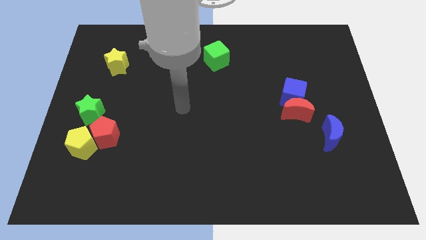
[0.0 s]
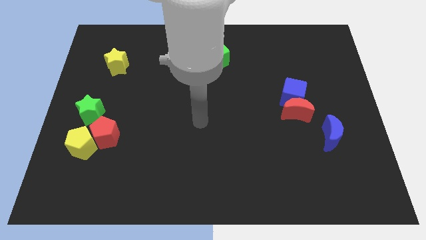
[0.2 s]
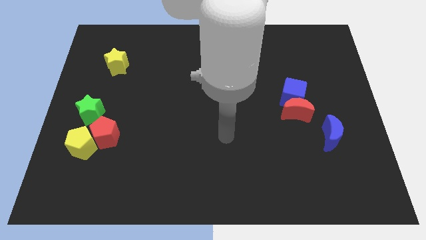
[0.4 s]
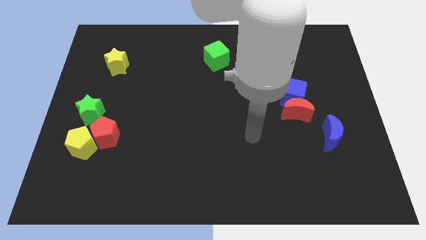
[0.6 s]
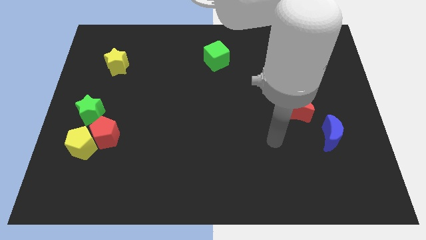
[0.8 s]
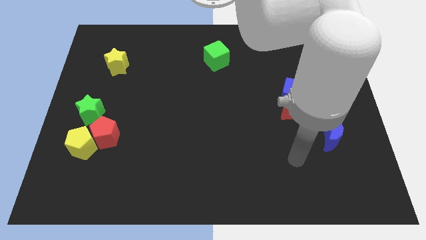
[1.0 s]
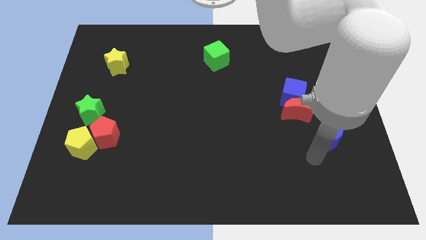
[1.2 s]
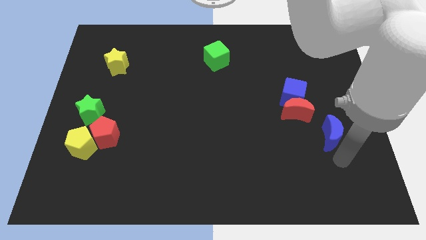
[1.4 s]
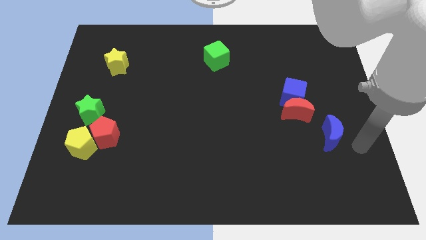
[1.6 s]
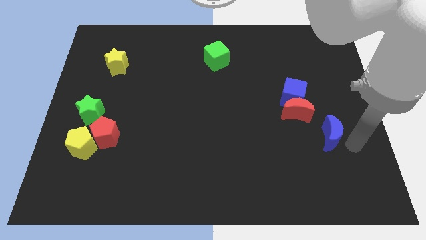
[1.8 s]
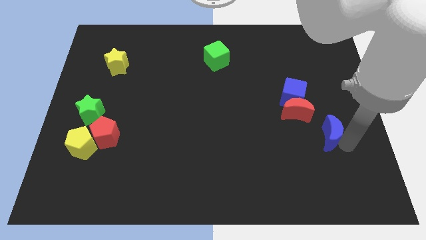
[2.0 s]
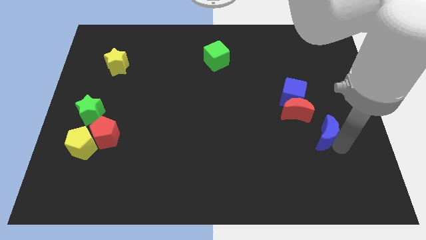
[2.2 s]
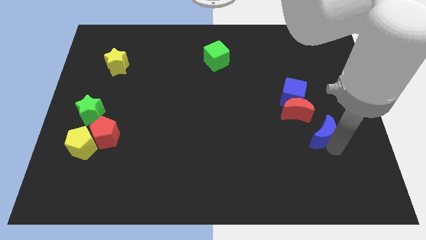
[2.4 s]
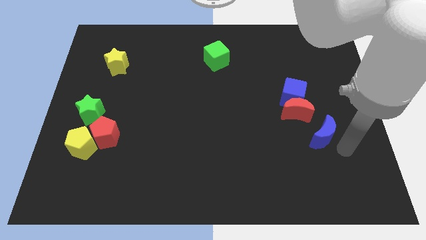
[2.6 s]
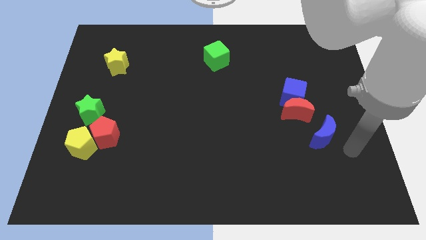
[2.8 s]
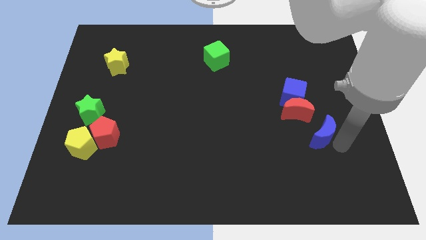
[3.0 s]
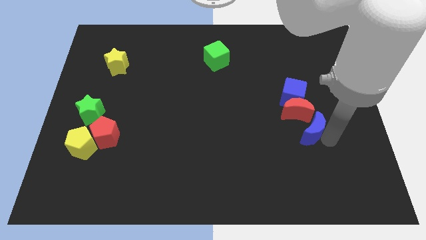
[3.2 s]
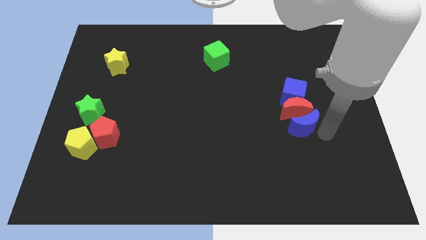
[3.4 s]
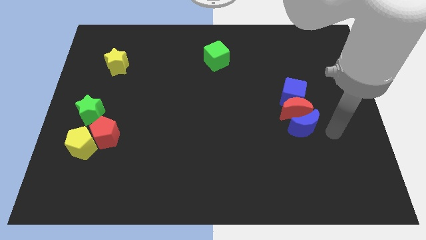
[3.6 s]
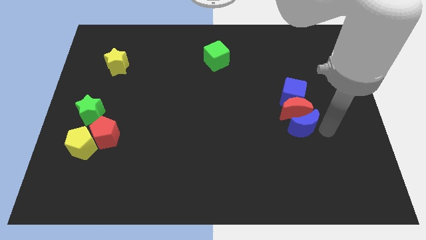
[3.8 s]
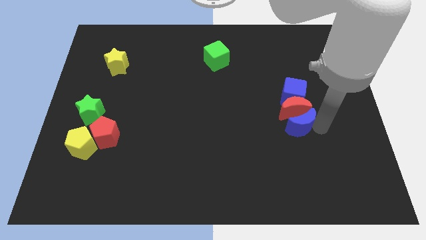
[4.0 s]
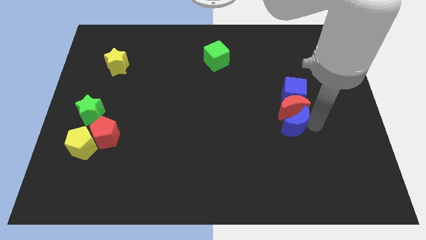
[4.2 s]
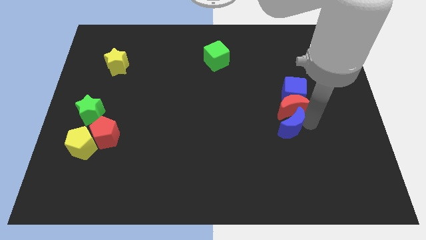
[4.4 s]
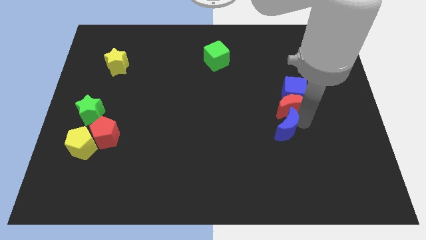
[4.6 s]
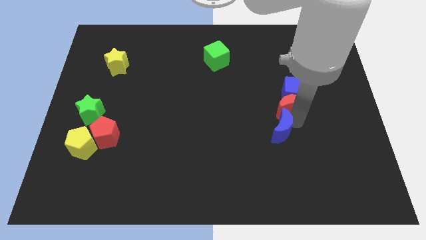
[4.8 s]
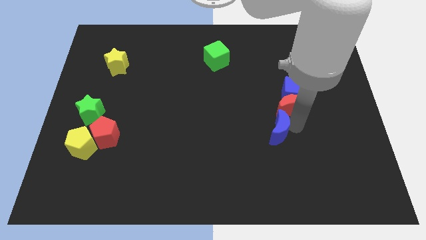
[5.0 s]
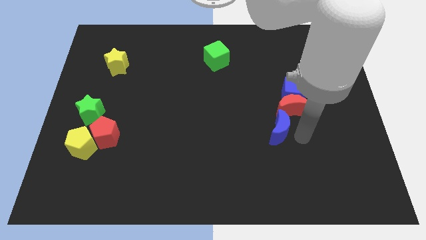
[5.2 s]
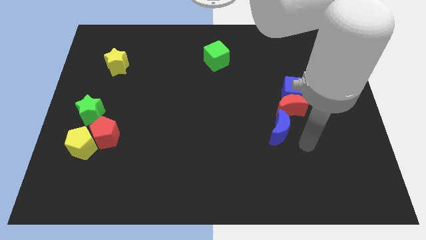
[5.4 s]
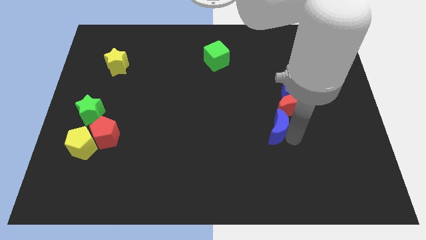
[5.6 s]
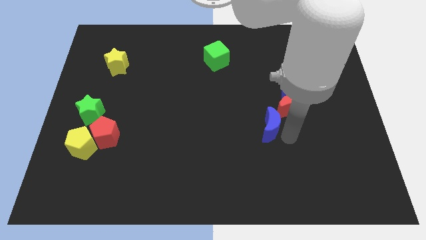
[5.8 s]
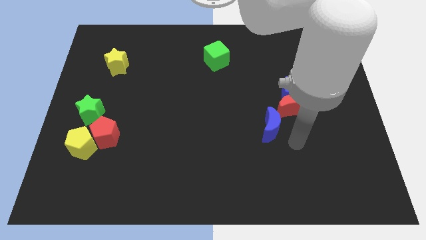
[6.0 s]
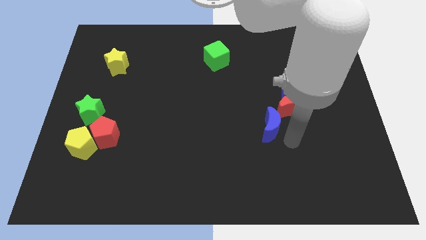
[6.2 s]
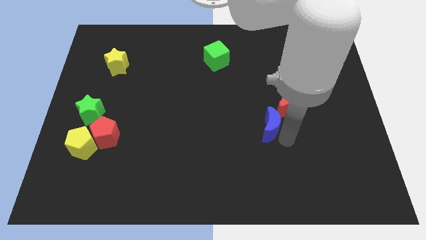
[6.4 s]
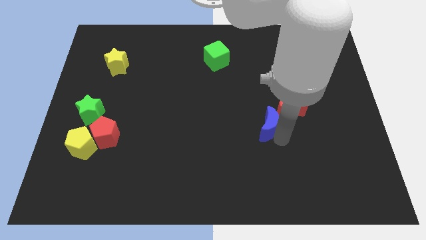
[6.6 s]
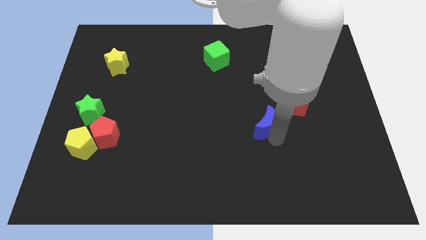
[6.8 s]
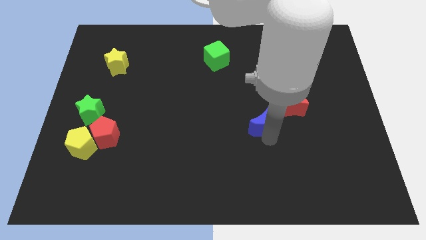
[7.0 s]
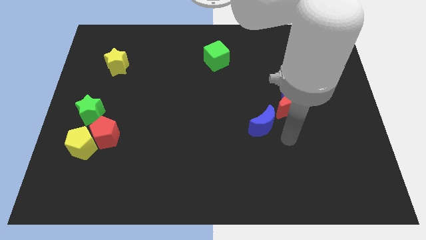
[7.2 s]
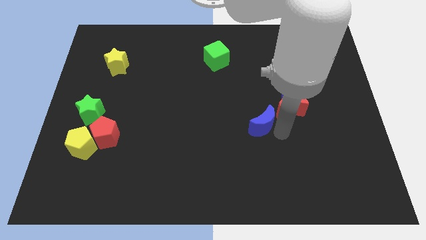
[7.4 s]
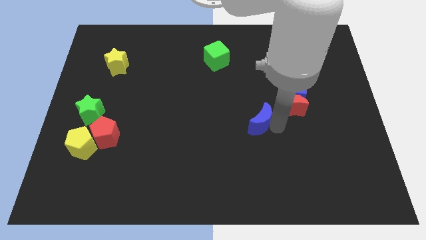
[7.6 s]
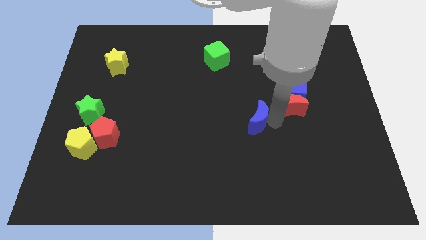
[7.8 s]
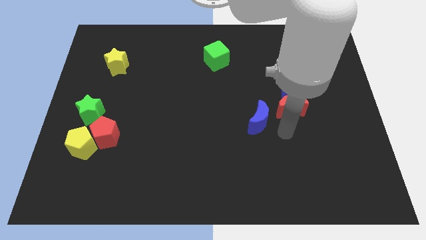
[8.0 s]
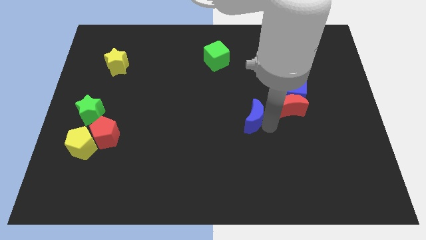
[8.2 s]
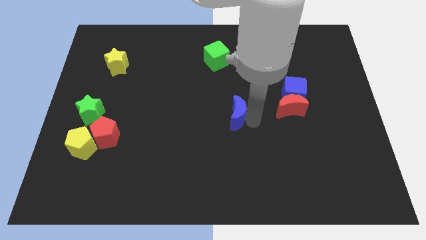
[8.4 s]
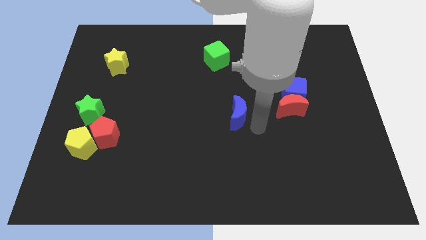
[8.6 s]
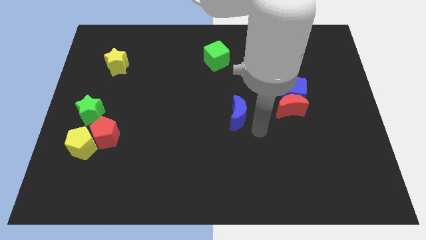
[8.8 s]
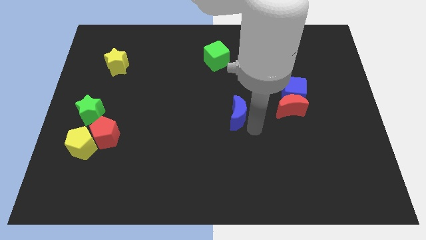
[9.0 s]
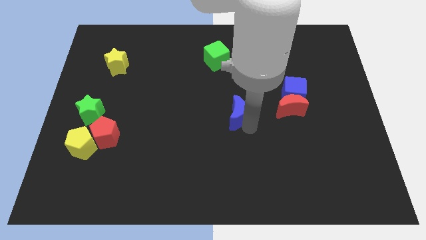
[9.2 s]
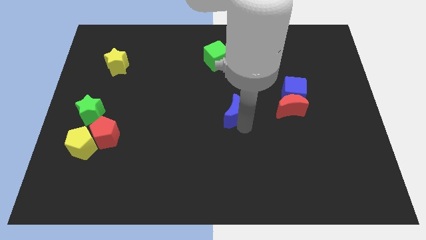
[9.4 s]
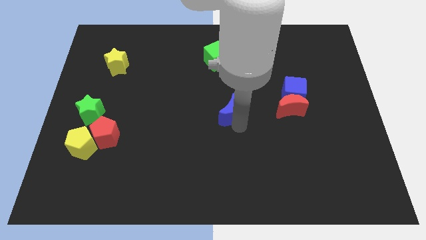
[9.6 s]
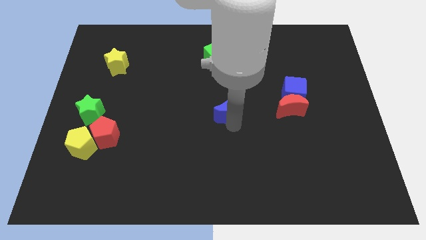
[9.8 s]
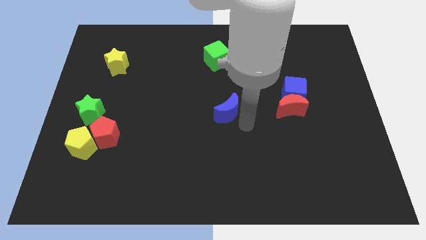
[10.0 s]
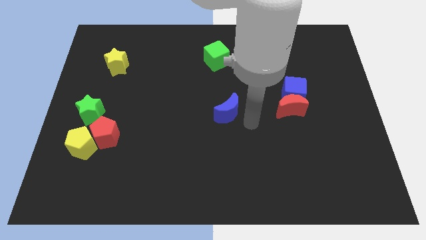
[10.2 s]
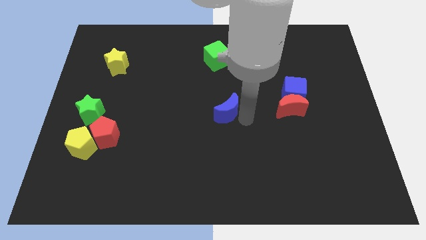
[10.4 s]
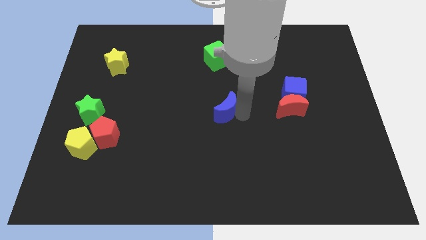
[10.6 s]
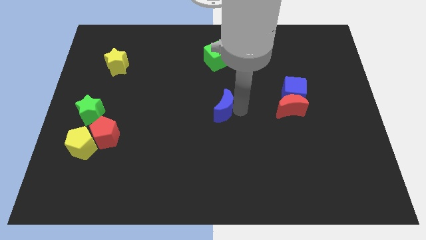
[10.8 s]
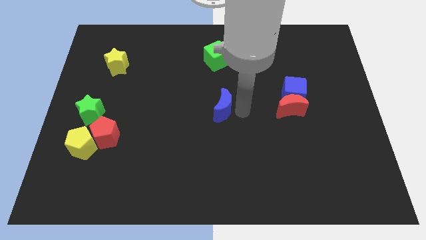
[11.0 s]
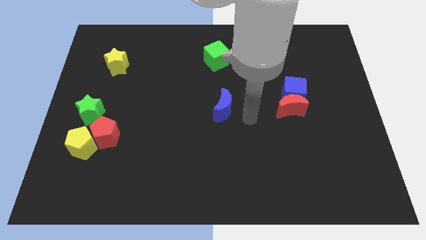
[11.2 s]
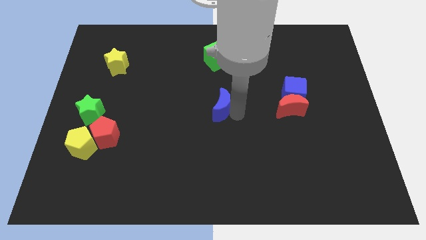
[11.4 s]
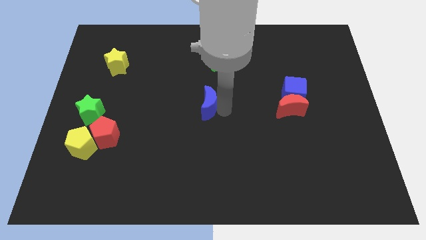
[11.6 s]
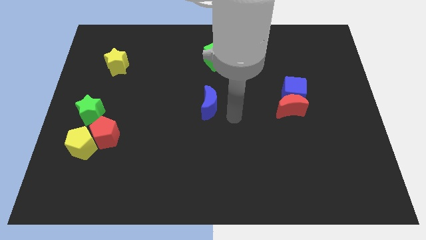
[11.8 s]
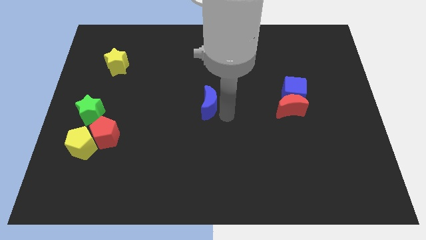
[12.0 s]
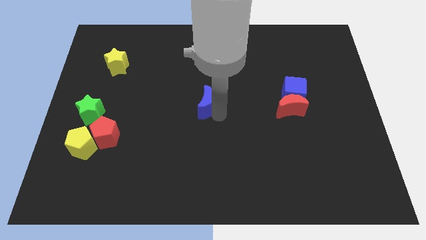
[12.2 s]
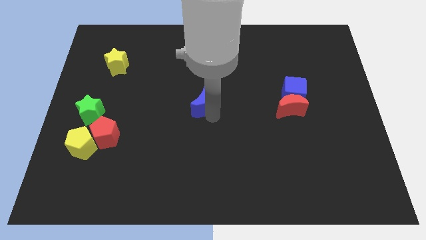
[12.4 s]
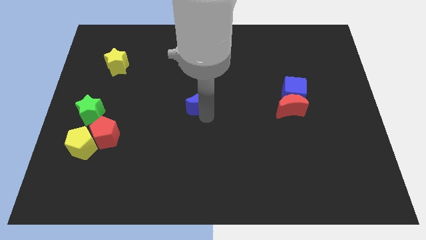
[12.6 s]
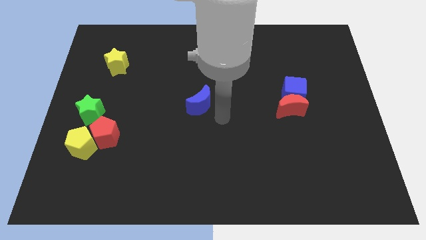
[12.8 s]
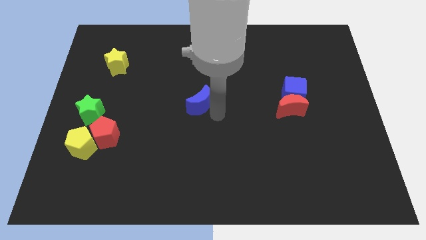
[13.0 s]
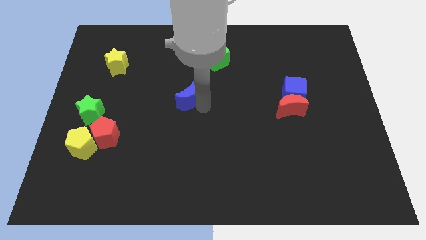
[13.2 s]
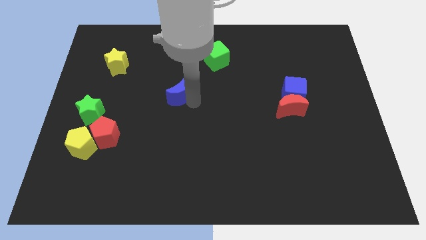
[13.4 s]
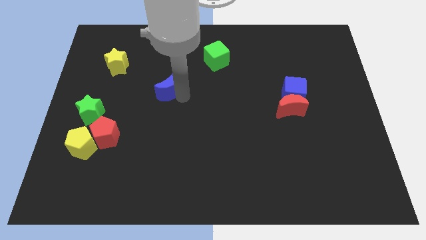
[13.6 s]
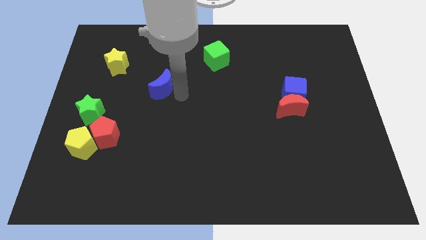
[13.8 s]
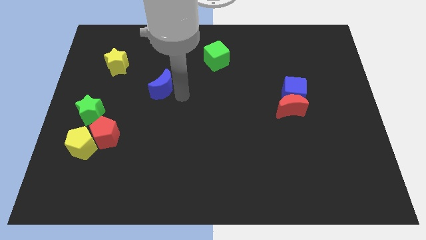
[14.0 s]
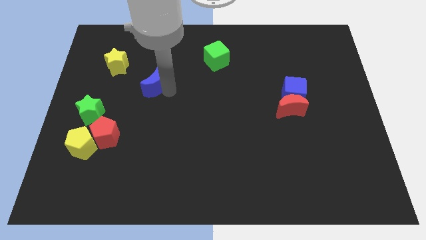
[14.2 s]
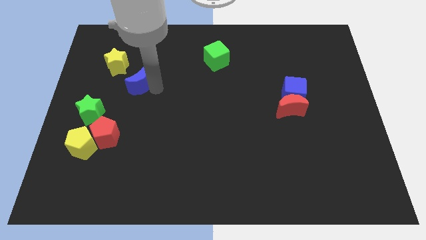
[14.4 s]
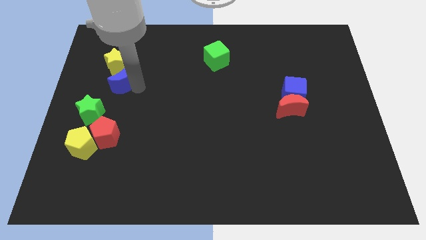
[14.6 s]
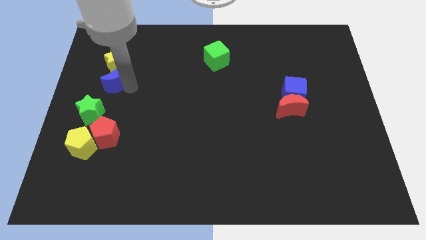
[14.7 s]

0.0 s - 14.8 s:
push the blue moon towards the yellow star

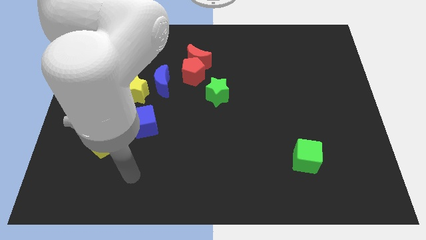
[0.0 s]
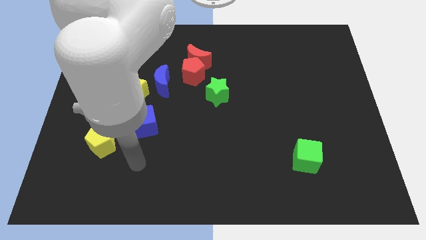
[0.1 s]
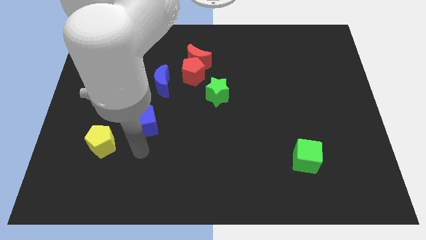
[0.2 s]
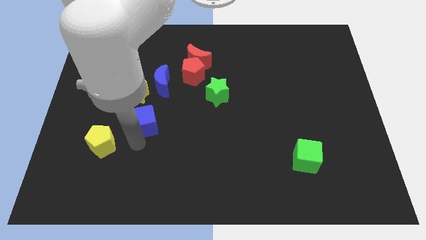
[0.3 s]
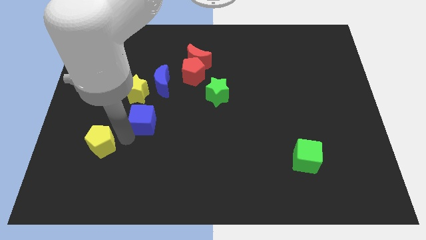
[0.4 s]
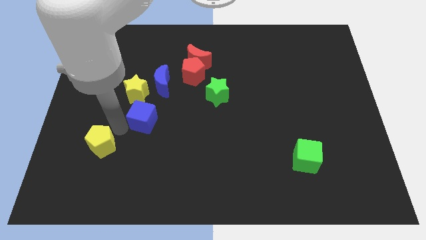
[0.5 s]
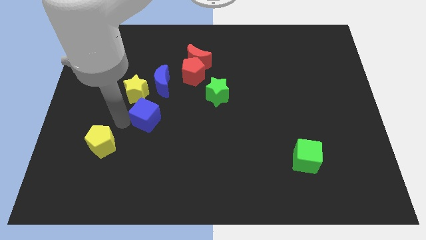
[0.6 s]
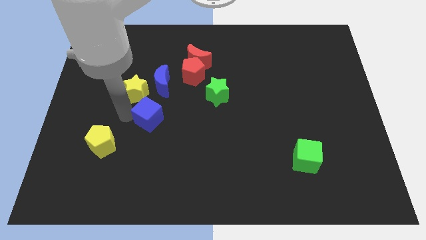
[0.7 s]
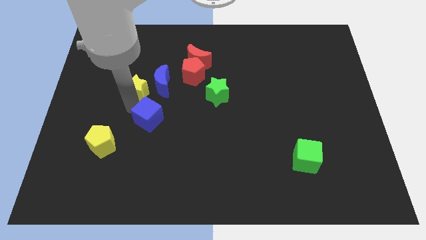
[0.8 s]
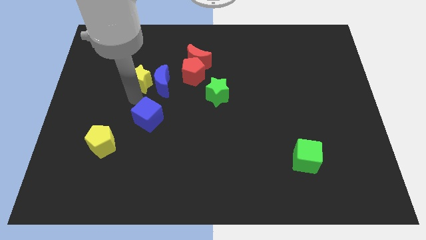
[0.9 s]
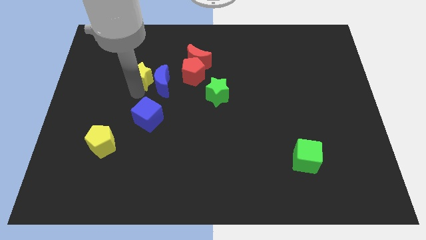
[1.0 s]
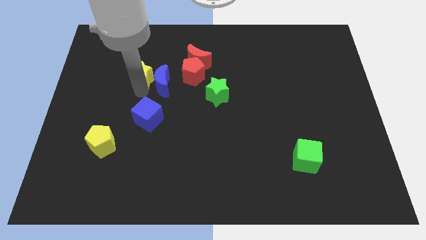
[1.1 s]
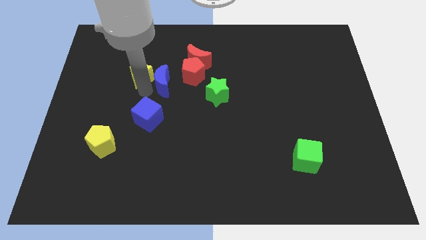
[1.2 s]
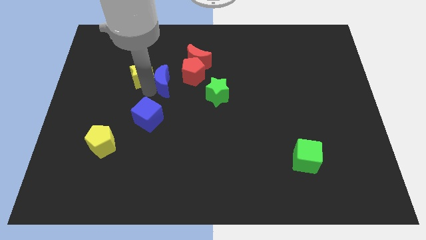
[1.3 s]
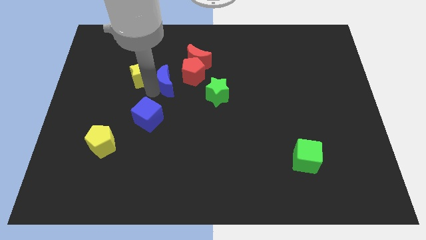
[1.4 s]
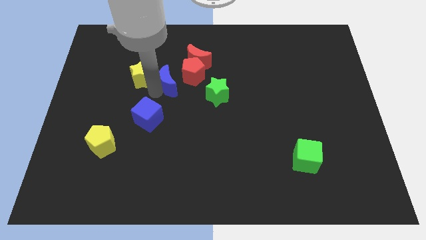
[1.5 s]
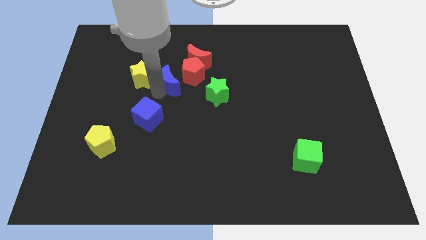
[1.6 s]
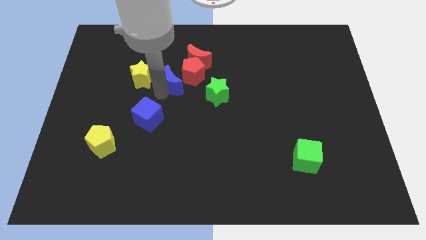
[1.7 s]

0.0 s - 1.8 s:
push the blue moon towards the red pentagon
